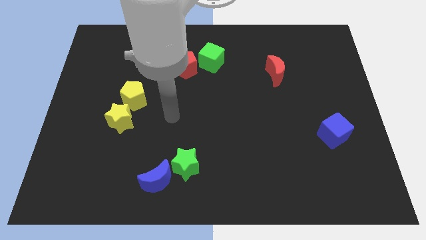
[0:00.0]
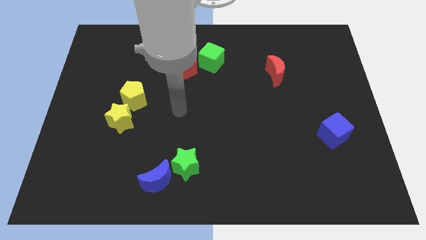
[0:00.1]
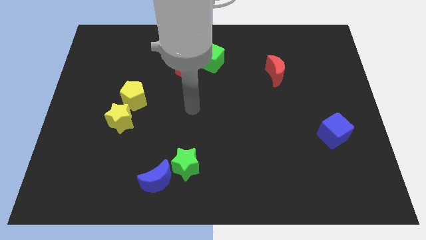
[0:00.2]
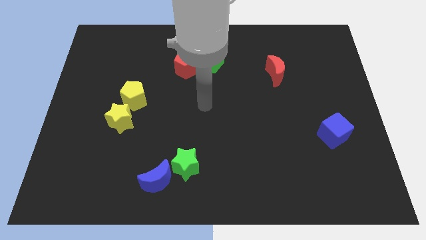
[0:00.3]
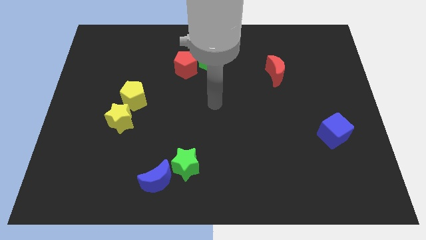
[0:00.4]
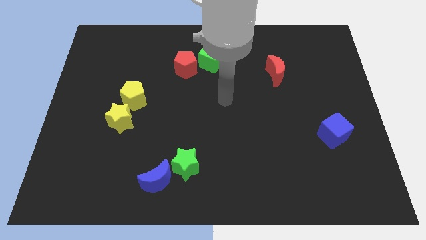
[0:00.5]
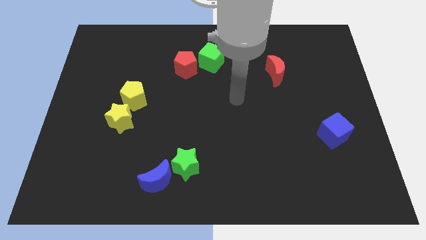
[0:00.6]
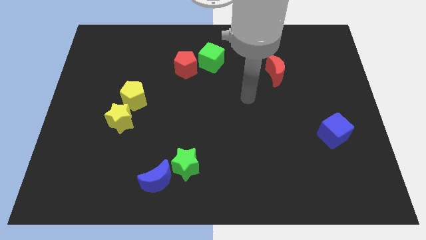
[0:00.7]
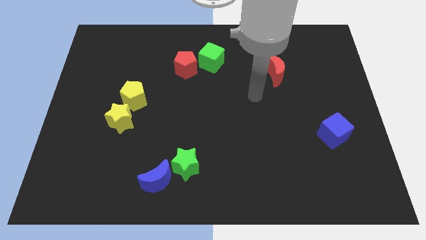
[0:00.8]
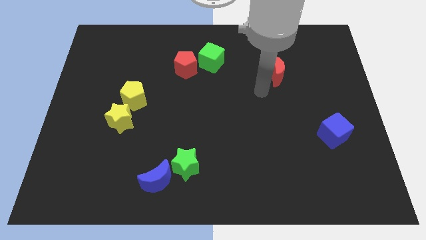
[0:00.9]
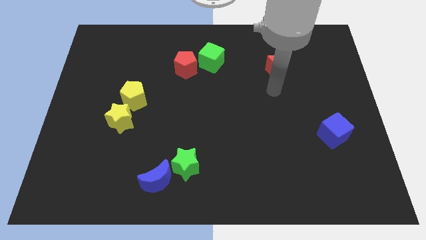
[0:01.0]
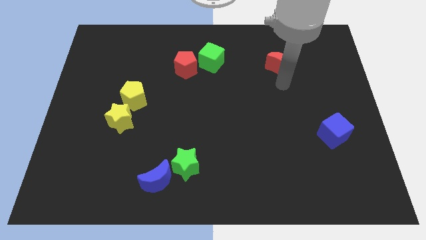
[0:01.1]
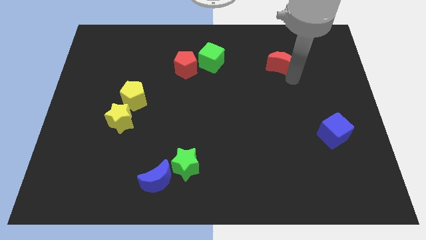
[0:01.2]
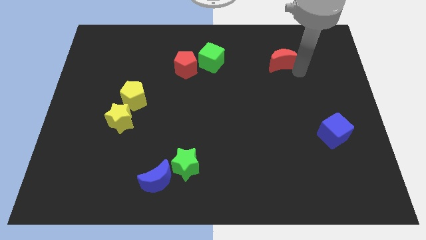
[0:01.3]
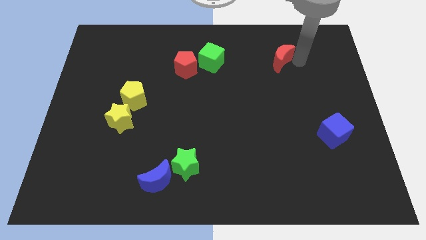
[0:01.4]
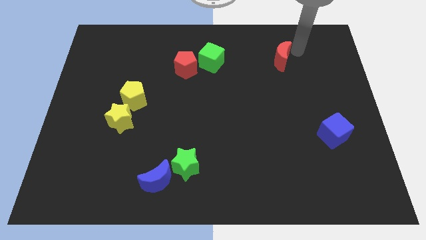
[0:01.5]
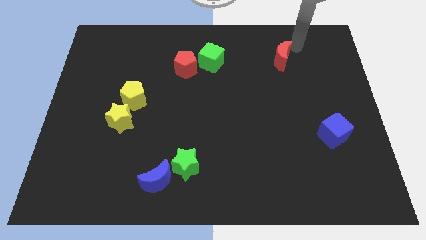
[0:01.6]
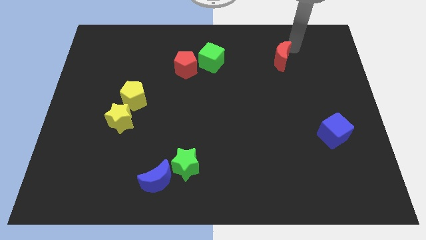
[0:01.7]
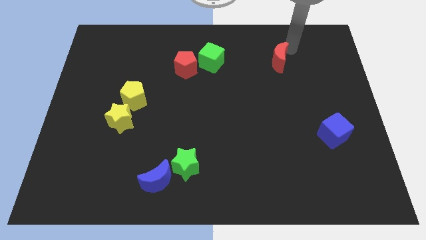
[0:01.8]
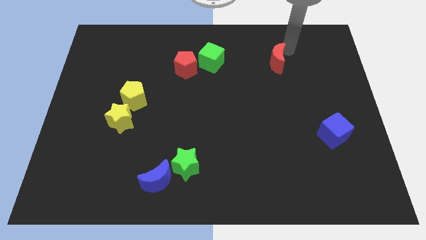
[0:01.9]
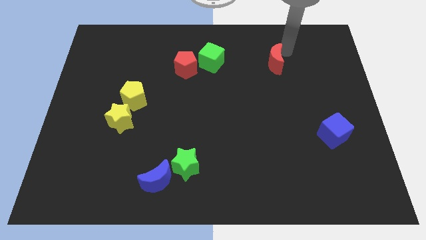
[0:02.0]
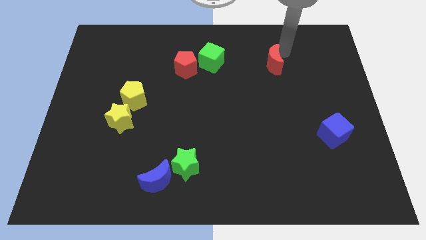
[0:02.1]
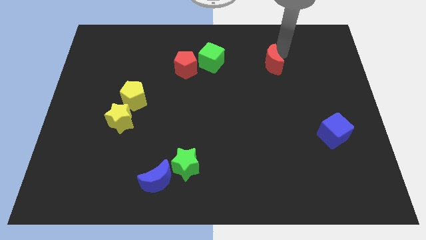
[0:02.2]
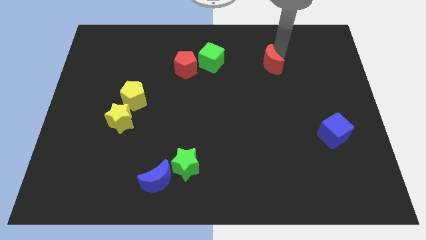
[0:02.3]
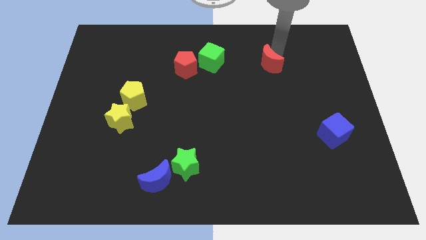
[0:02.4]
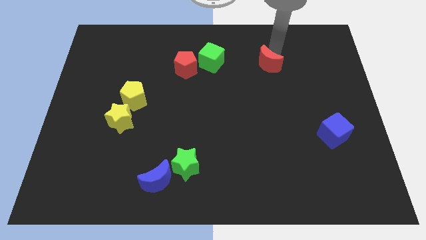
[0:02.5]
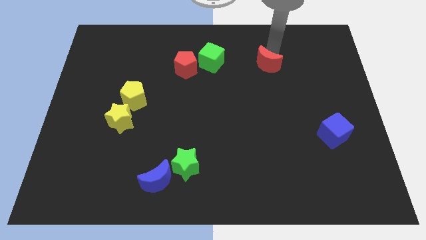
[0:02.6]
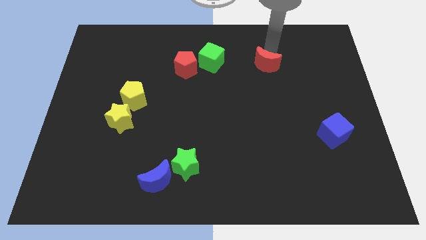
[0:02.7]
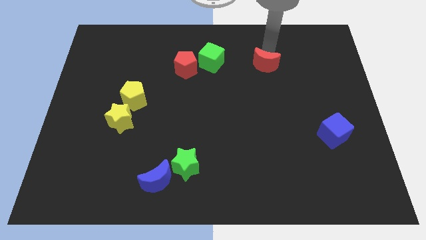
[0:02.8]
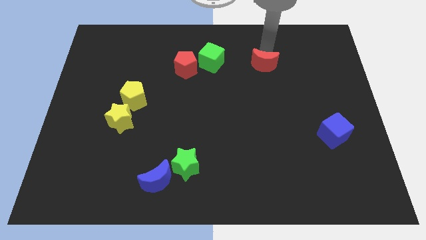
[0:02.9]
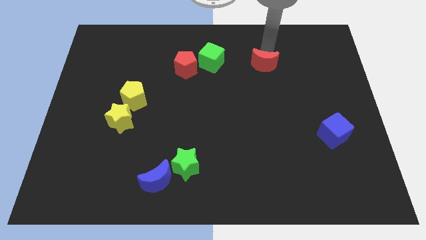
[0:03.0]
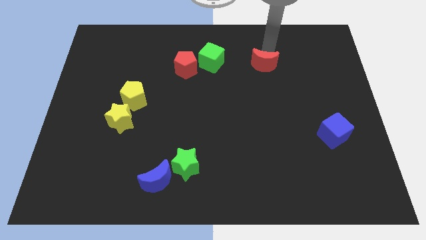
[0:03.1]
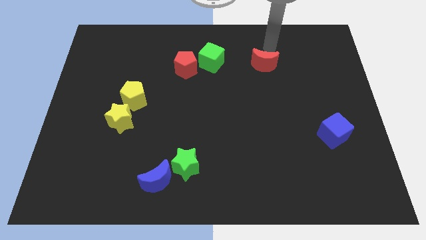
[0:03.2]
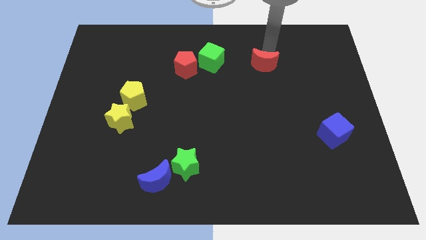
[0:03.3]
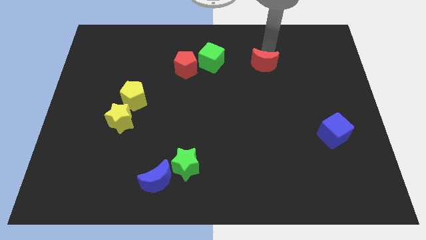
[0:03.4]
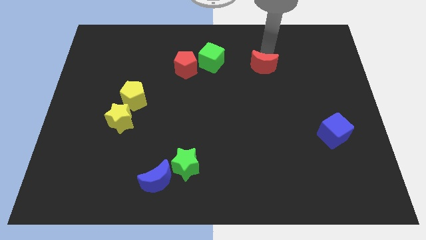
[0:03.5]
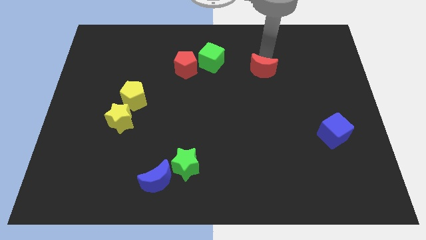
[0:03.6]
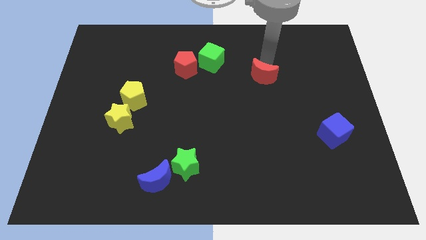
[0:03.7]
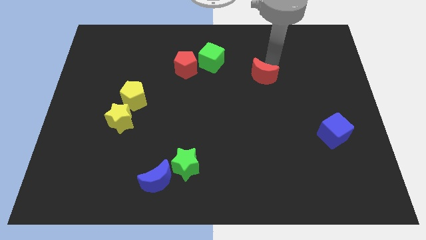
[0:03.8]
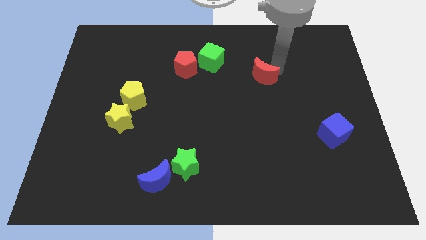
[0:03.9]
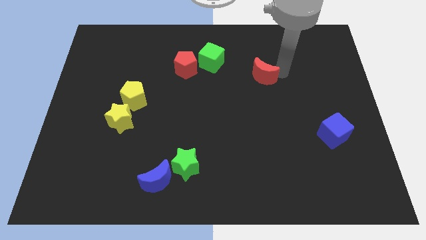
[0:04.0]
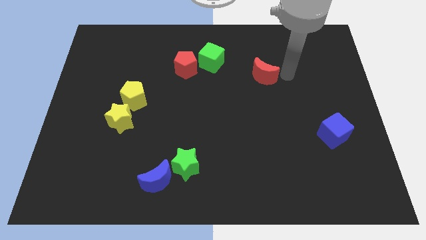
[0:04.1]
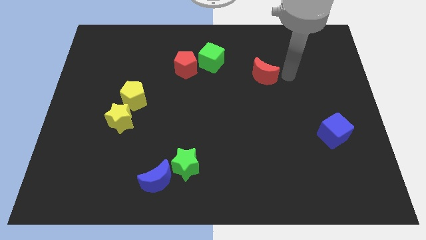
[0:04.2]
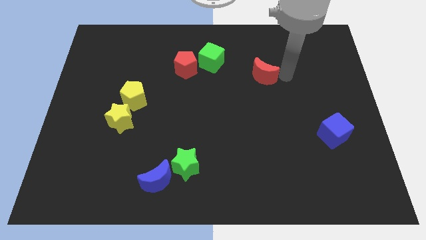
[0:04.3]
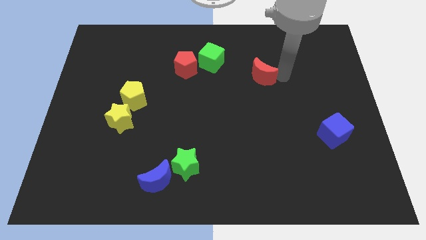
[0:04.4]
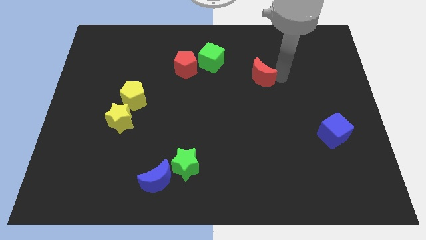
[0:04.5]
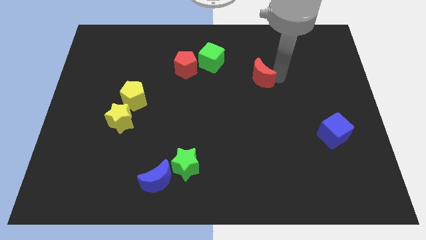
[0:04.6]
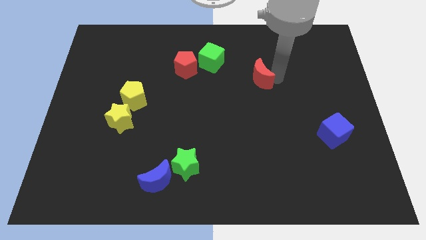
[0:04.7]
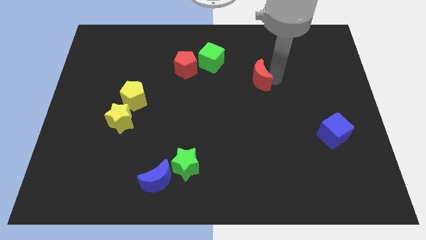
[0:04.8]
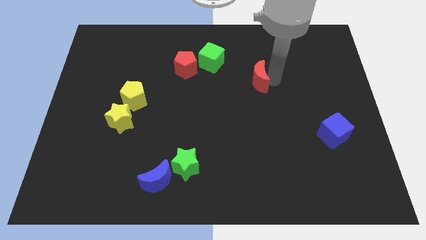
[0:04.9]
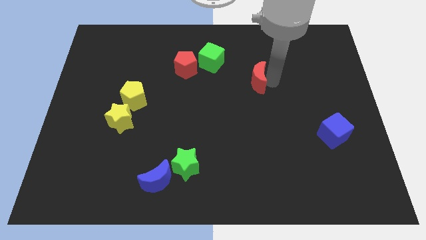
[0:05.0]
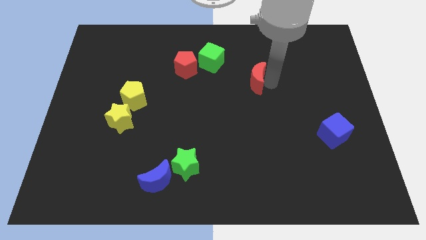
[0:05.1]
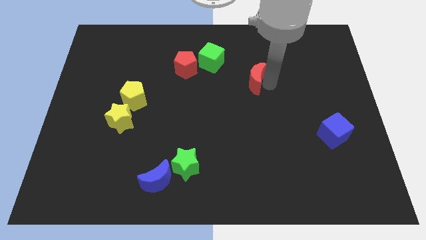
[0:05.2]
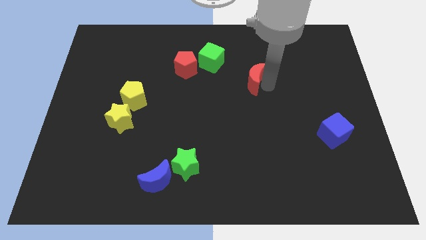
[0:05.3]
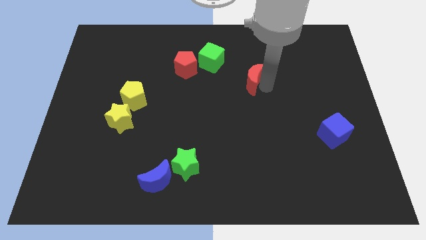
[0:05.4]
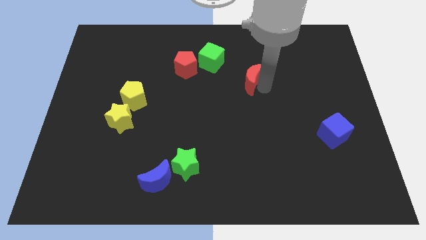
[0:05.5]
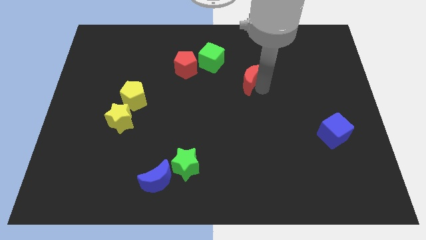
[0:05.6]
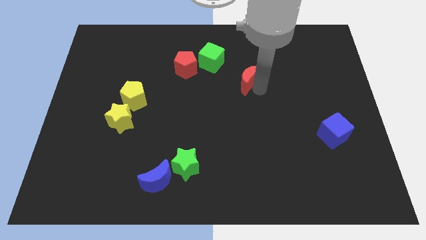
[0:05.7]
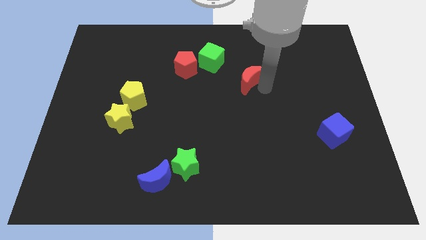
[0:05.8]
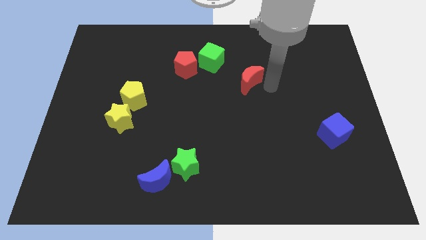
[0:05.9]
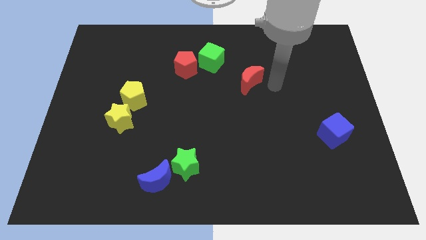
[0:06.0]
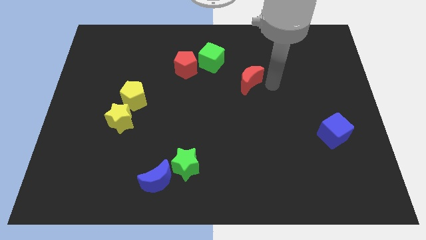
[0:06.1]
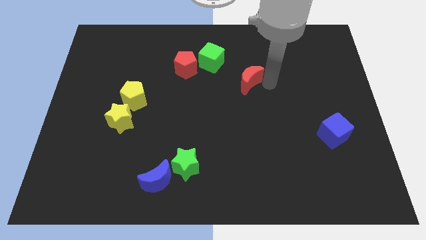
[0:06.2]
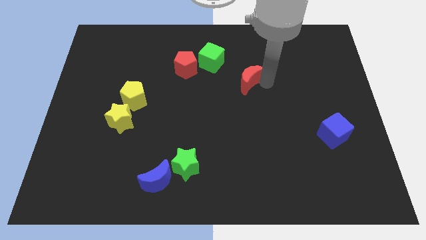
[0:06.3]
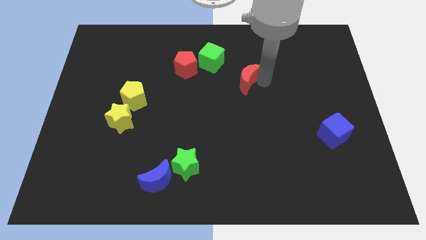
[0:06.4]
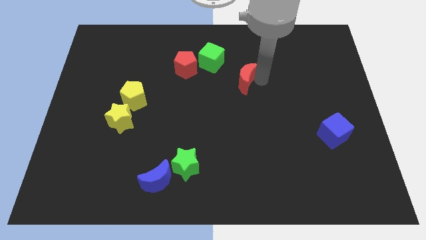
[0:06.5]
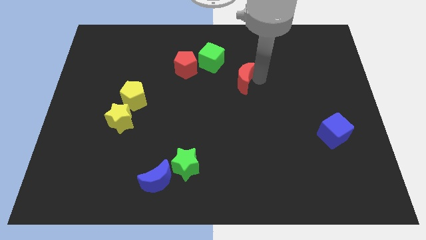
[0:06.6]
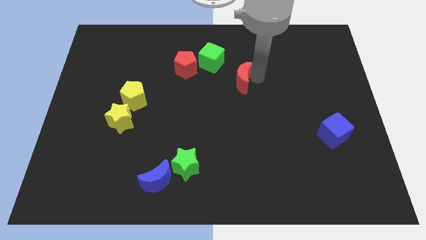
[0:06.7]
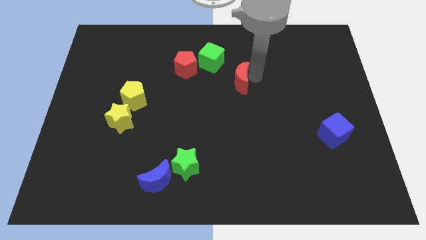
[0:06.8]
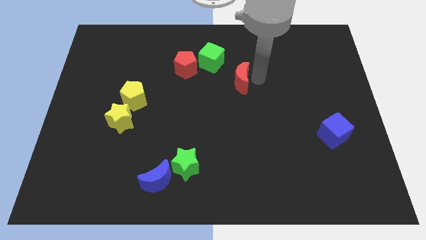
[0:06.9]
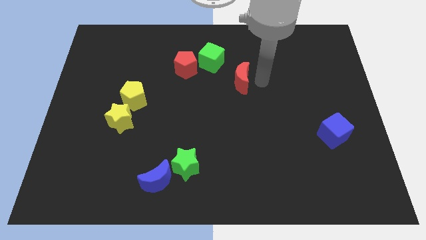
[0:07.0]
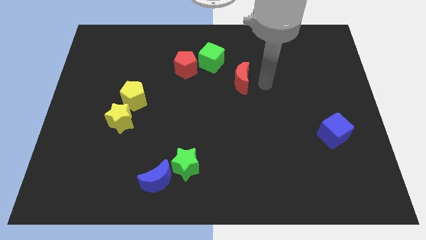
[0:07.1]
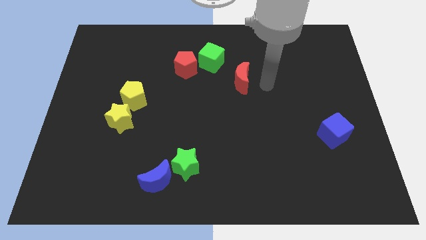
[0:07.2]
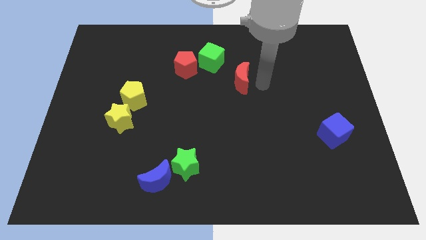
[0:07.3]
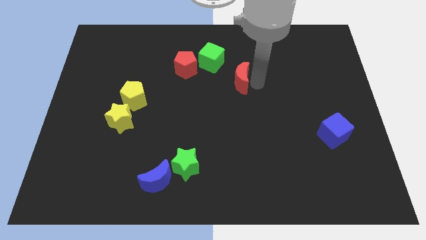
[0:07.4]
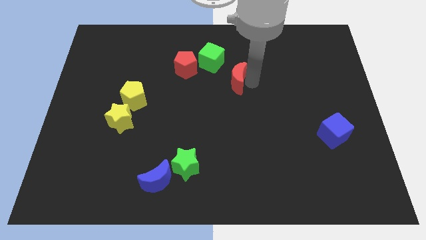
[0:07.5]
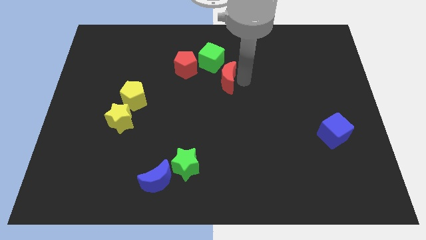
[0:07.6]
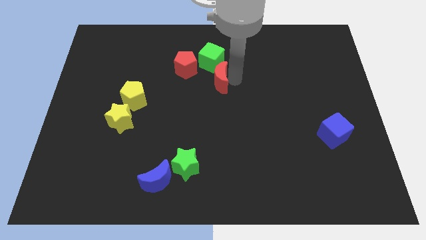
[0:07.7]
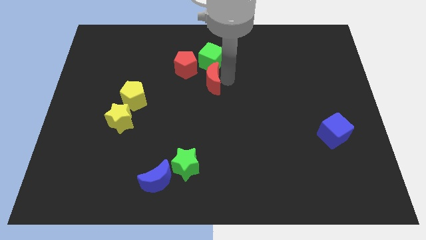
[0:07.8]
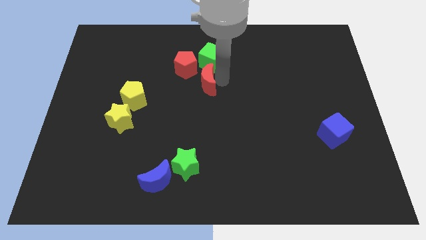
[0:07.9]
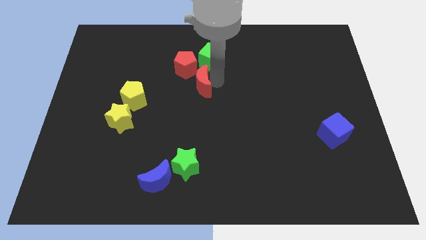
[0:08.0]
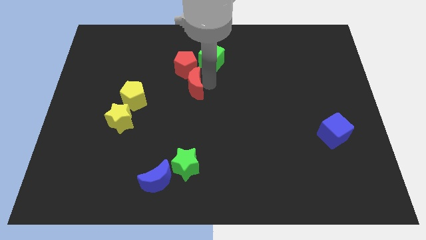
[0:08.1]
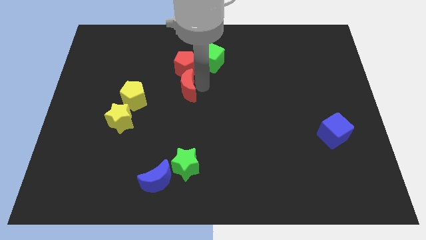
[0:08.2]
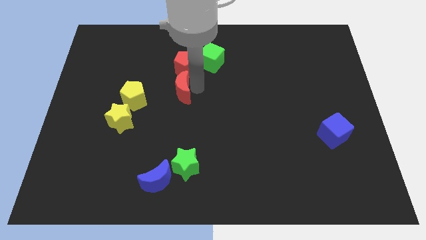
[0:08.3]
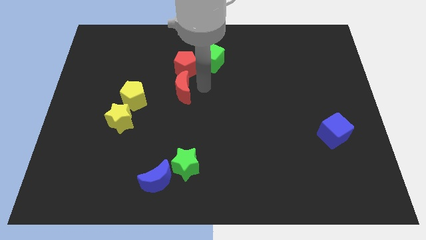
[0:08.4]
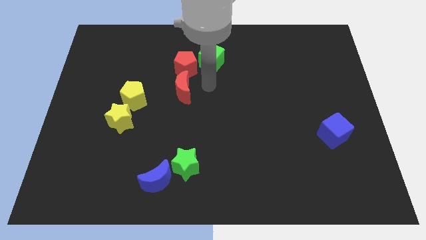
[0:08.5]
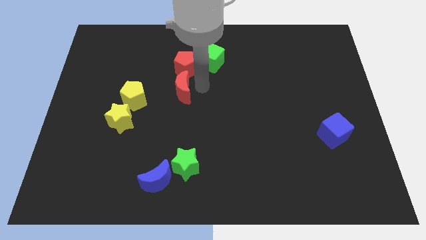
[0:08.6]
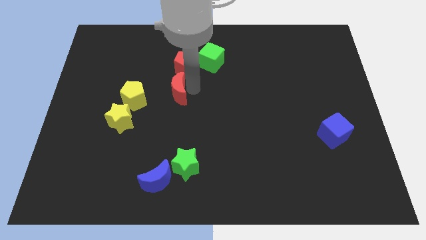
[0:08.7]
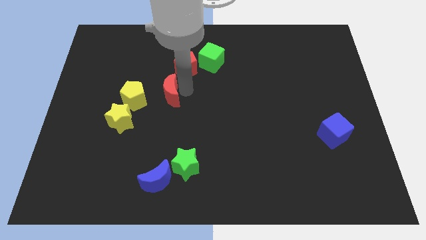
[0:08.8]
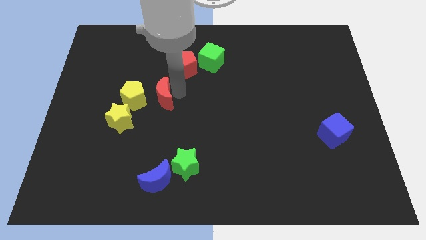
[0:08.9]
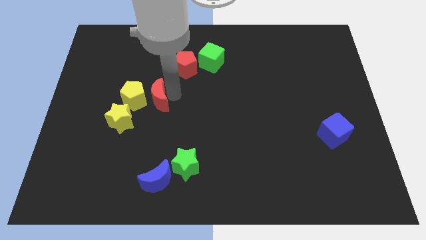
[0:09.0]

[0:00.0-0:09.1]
put the red moon to the yellow pentagon
